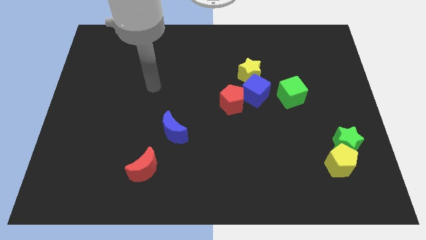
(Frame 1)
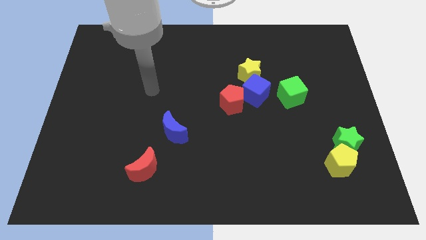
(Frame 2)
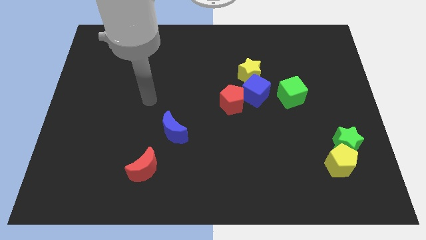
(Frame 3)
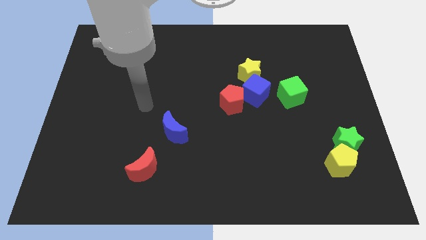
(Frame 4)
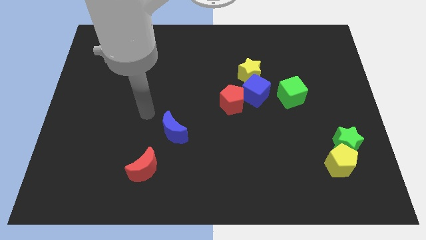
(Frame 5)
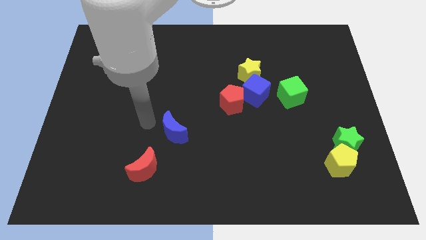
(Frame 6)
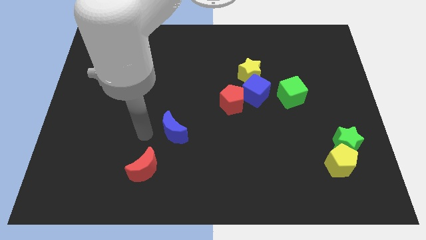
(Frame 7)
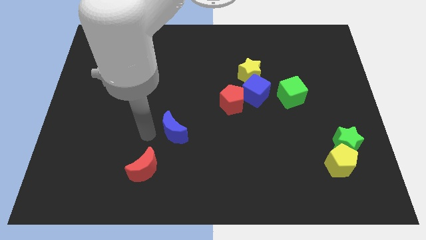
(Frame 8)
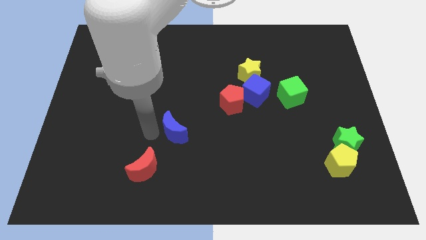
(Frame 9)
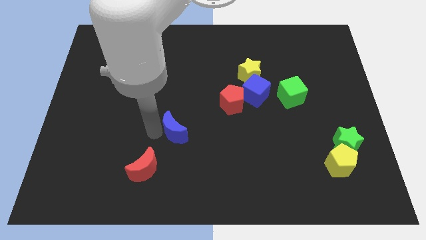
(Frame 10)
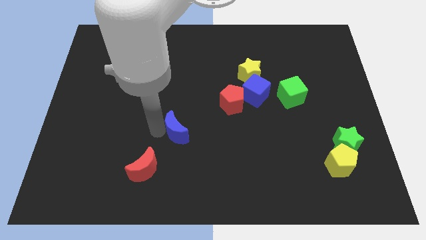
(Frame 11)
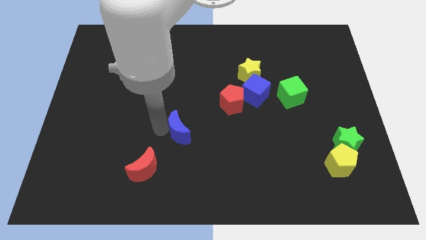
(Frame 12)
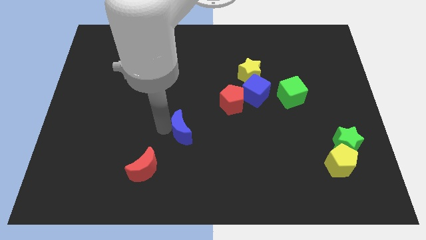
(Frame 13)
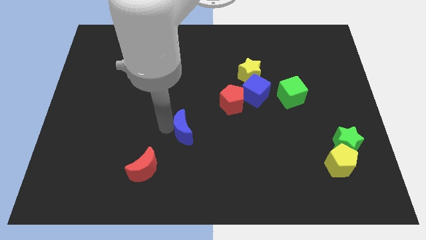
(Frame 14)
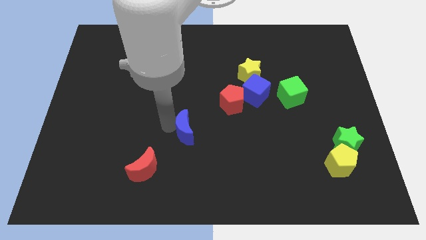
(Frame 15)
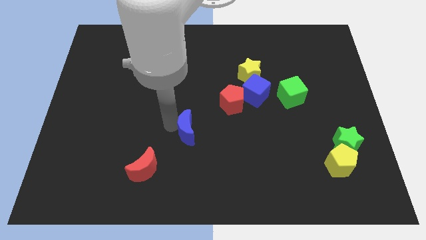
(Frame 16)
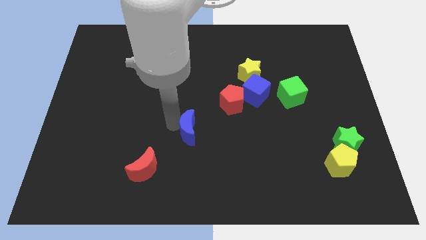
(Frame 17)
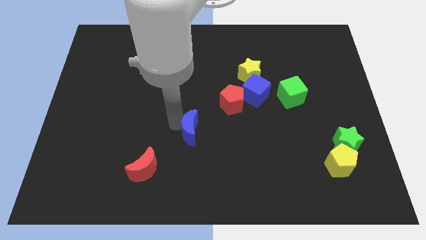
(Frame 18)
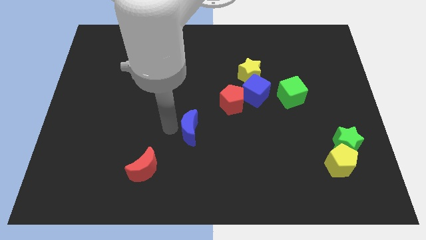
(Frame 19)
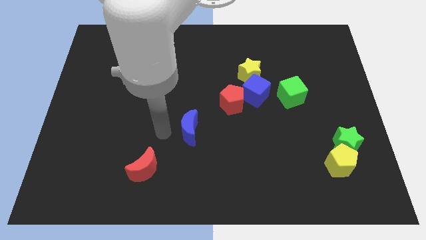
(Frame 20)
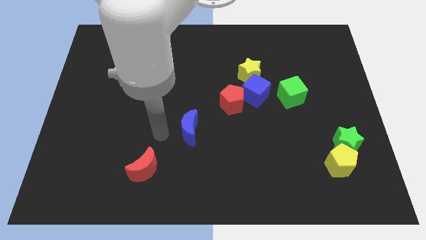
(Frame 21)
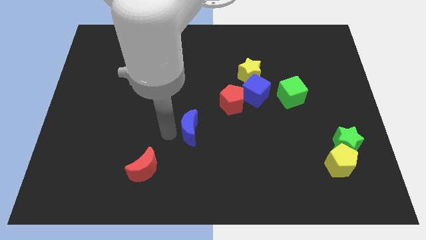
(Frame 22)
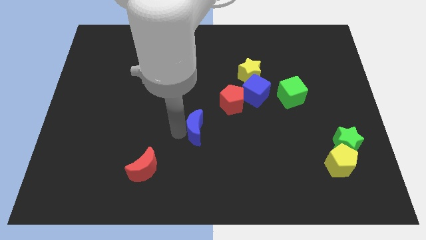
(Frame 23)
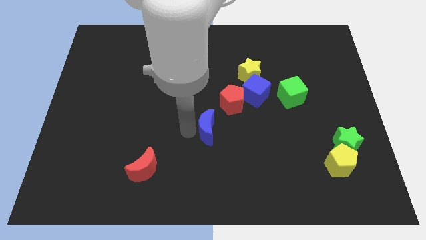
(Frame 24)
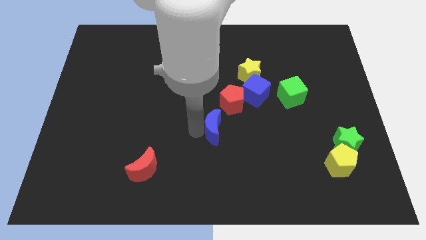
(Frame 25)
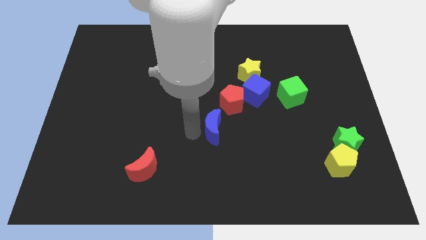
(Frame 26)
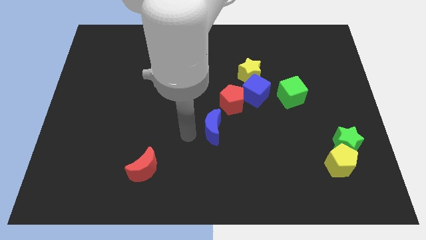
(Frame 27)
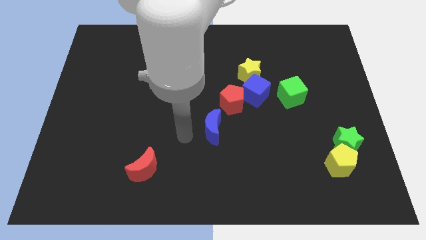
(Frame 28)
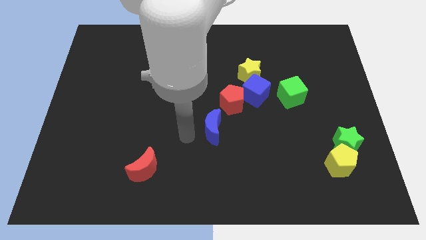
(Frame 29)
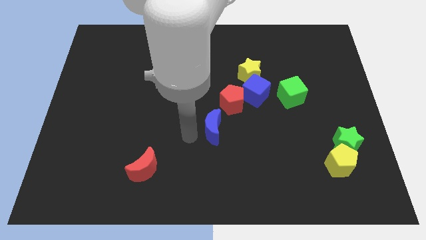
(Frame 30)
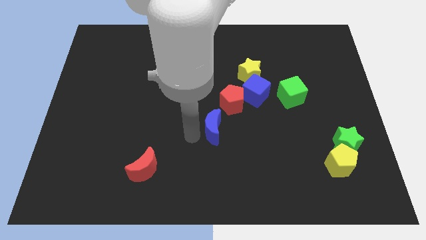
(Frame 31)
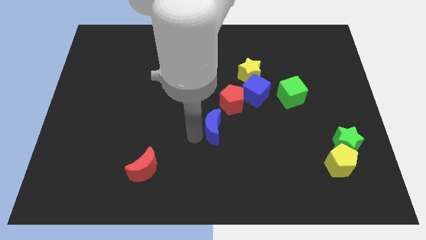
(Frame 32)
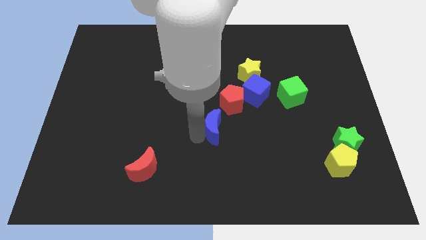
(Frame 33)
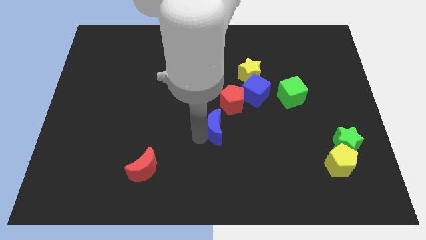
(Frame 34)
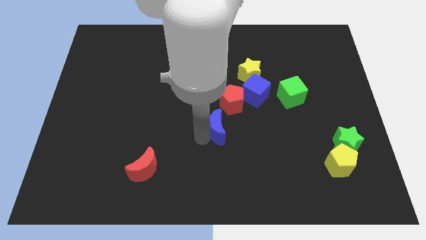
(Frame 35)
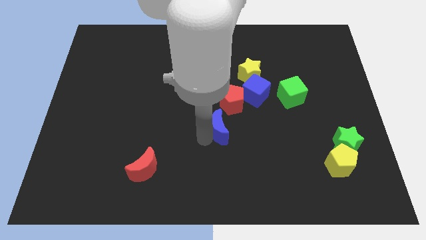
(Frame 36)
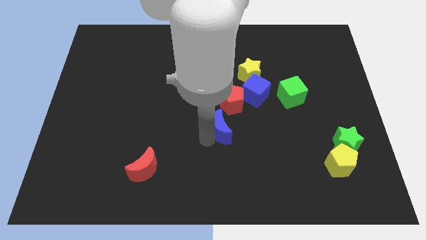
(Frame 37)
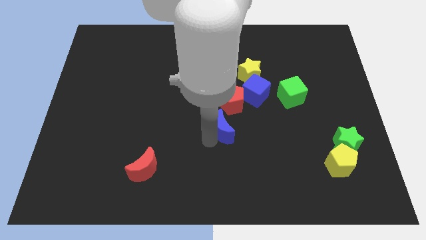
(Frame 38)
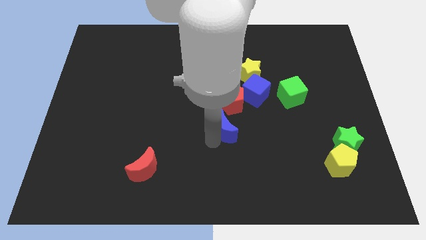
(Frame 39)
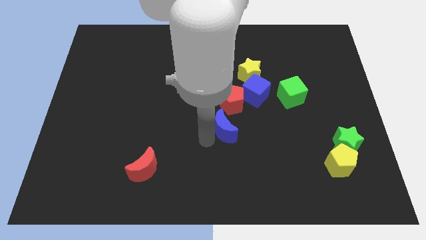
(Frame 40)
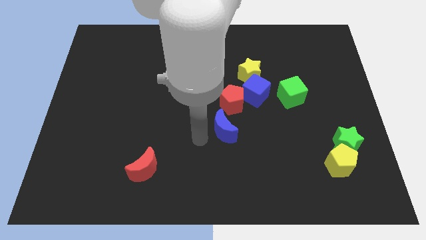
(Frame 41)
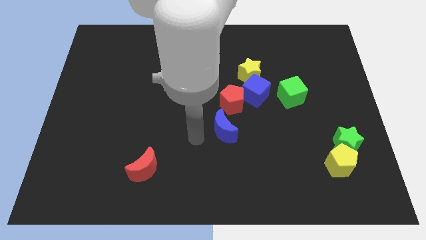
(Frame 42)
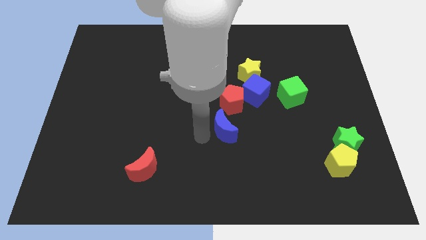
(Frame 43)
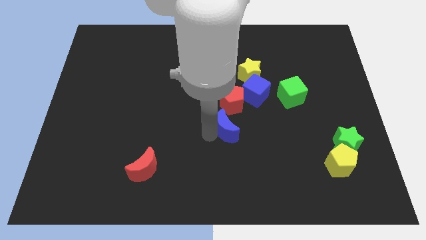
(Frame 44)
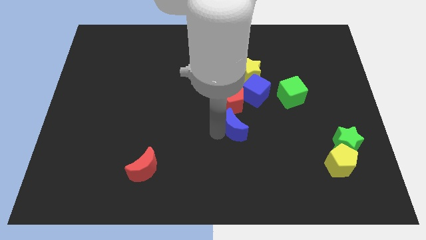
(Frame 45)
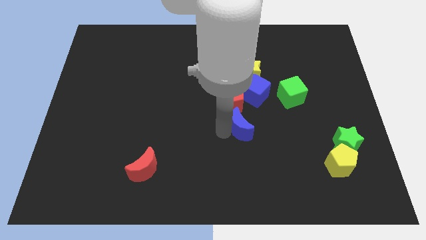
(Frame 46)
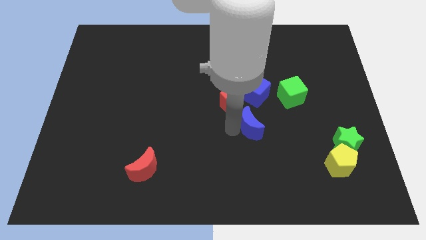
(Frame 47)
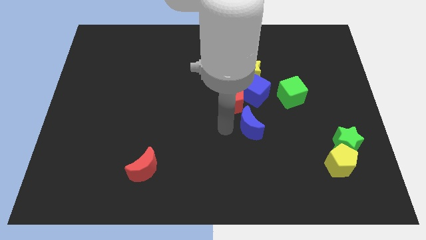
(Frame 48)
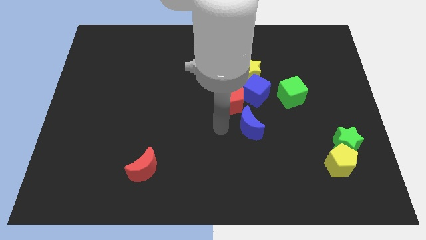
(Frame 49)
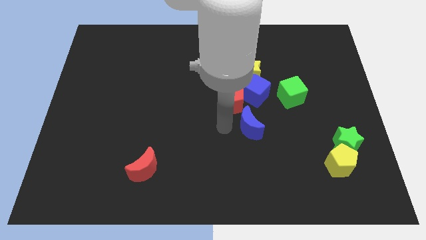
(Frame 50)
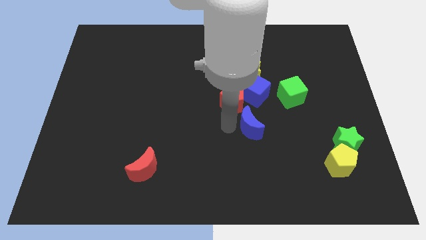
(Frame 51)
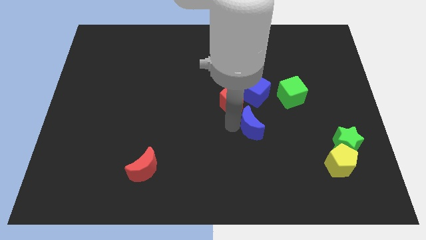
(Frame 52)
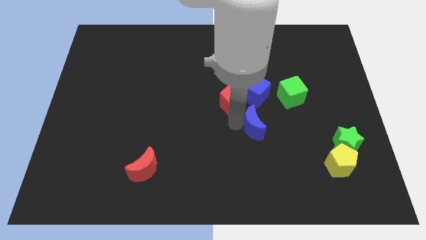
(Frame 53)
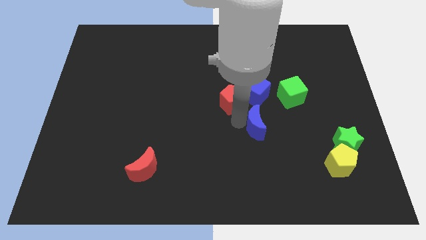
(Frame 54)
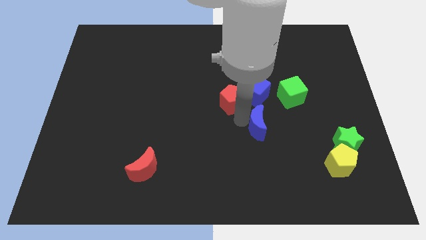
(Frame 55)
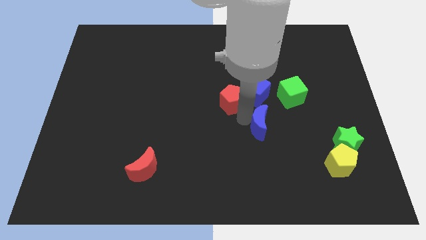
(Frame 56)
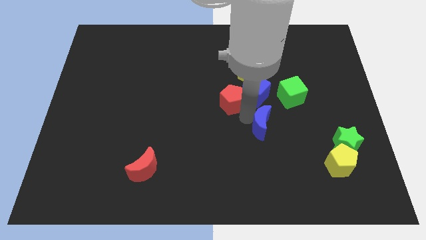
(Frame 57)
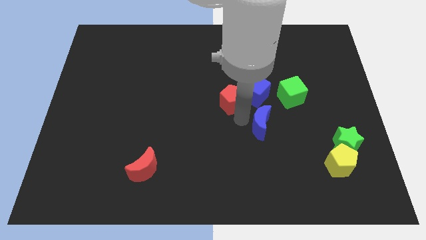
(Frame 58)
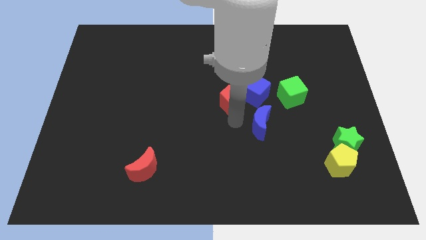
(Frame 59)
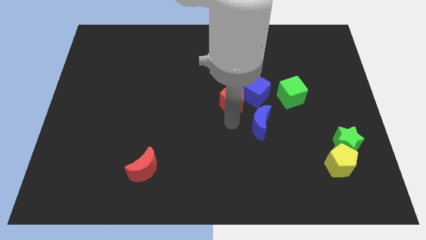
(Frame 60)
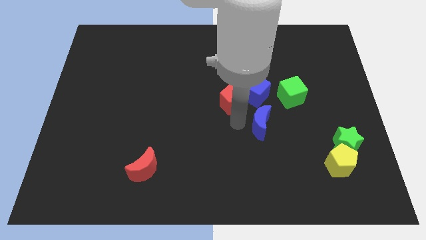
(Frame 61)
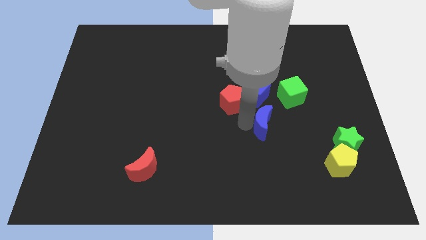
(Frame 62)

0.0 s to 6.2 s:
move the blue moon right

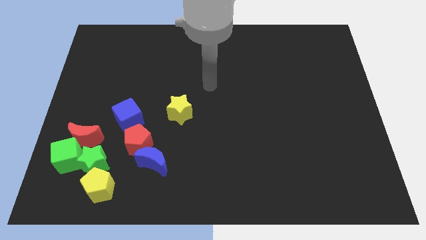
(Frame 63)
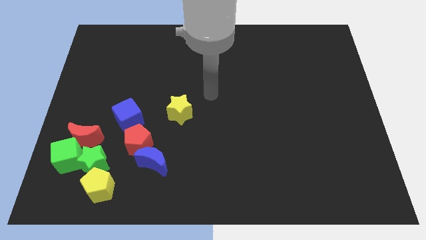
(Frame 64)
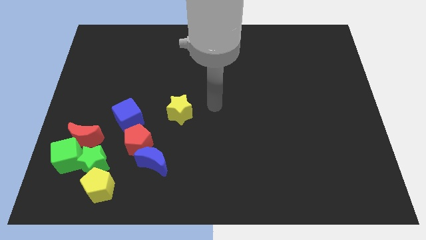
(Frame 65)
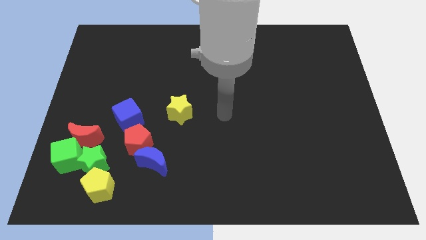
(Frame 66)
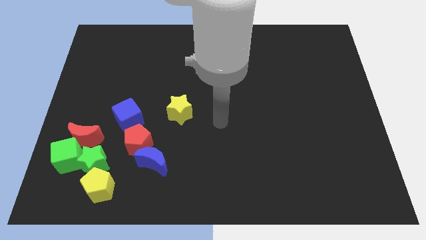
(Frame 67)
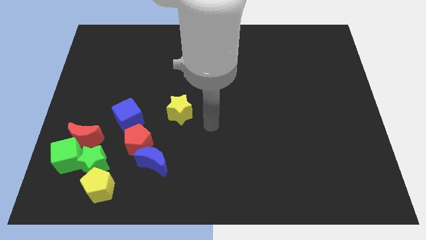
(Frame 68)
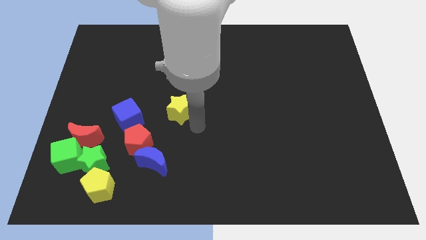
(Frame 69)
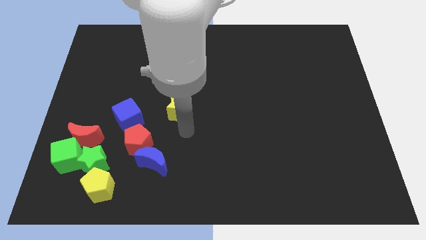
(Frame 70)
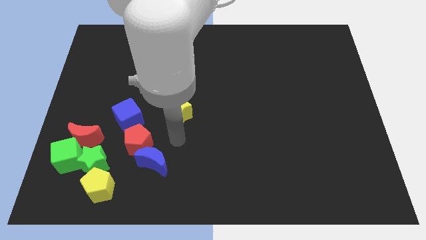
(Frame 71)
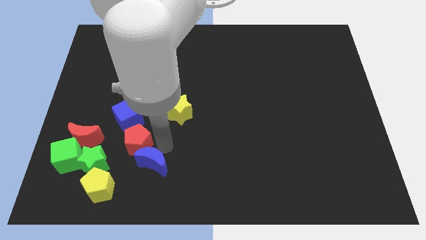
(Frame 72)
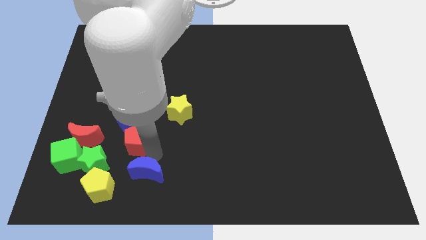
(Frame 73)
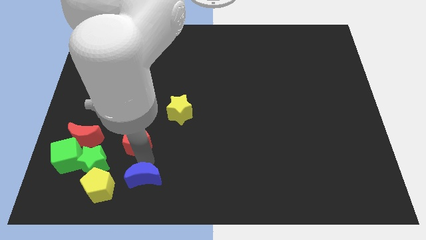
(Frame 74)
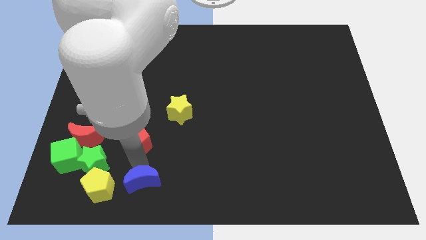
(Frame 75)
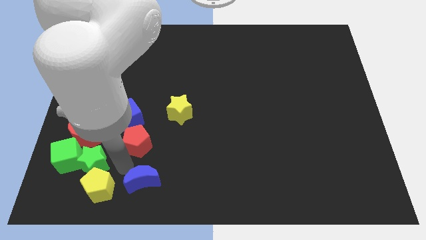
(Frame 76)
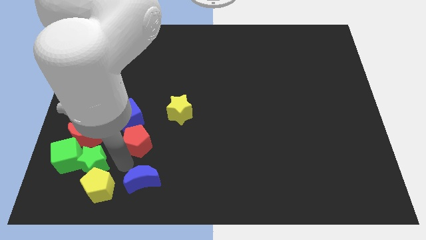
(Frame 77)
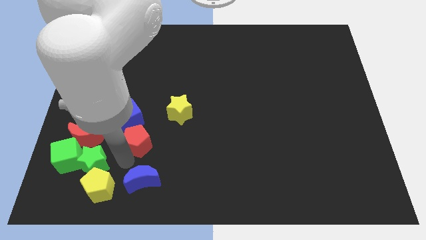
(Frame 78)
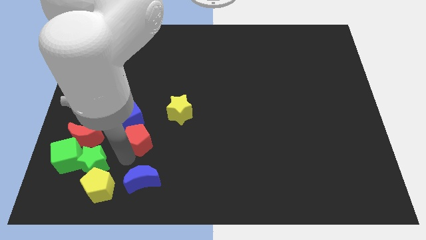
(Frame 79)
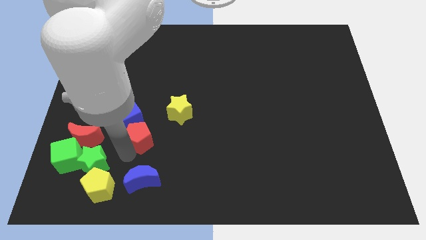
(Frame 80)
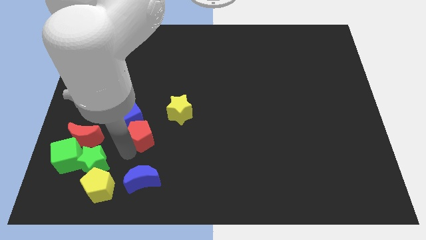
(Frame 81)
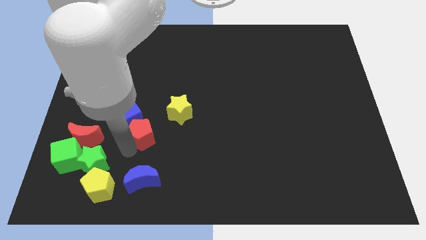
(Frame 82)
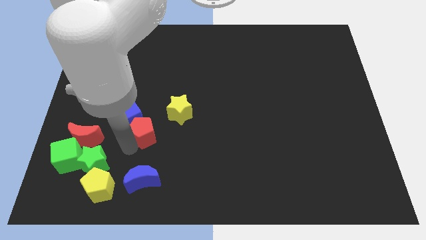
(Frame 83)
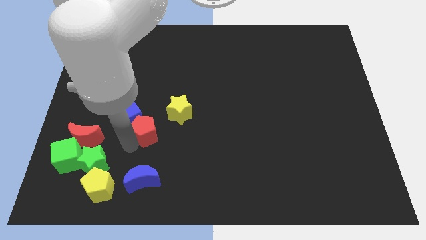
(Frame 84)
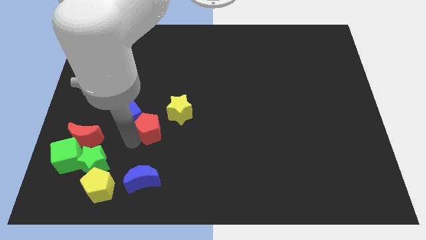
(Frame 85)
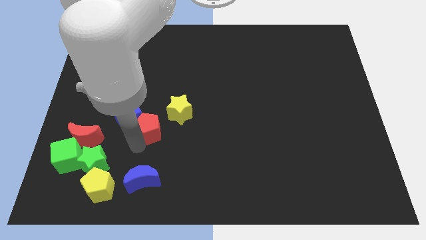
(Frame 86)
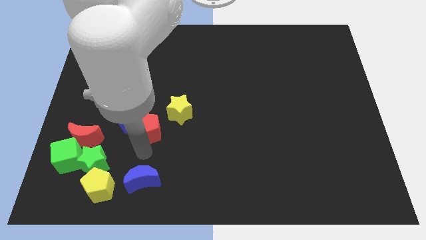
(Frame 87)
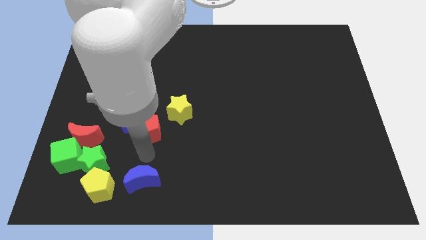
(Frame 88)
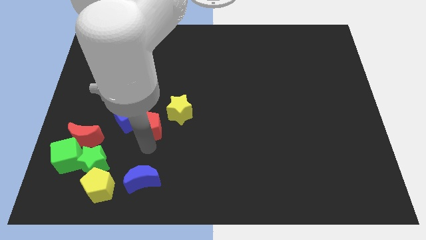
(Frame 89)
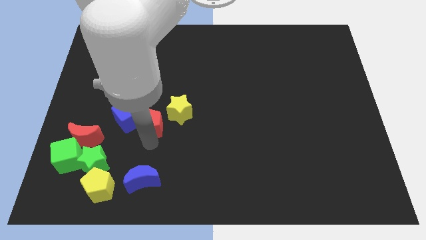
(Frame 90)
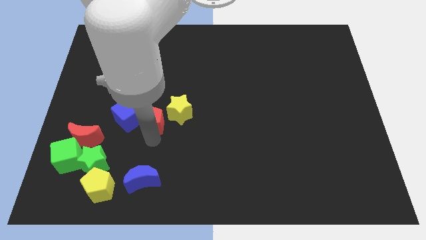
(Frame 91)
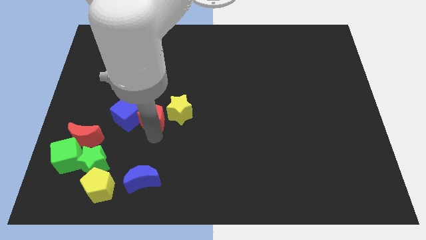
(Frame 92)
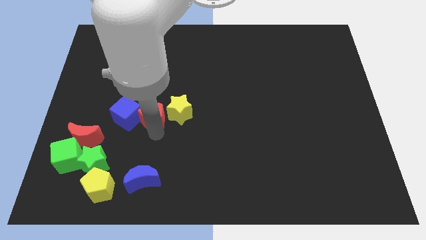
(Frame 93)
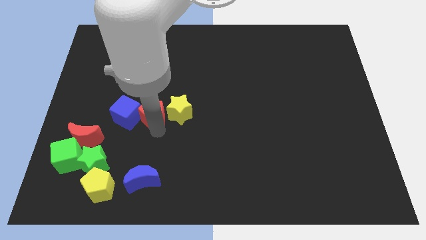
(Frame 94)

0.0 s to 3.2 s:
slightly push the red pentagon up
